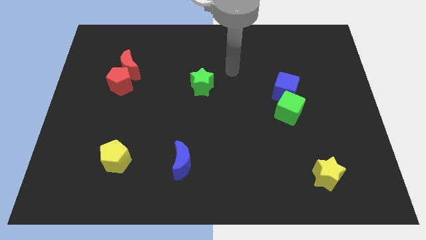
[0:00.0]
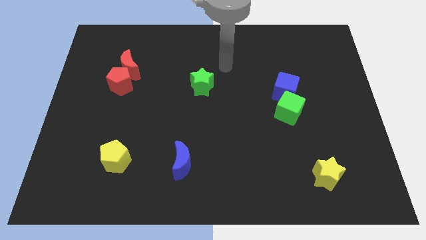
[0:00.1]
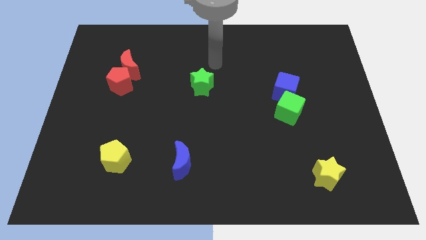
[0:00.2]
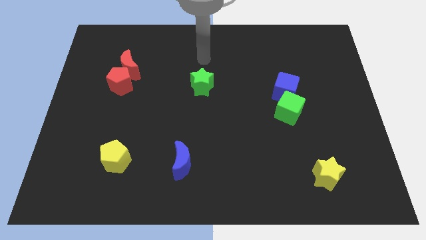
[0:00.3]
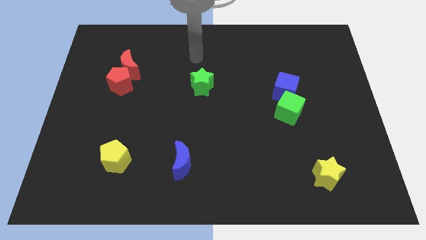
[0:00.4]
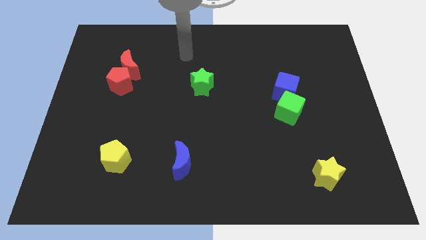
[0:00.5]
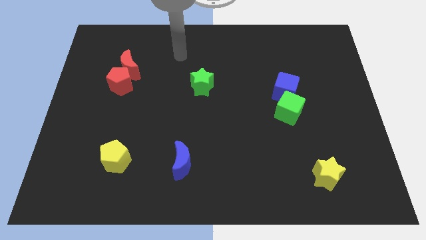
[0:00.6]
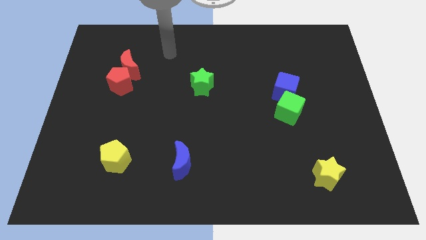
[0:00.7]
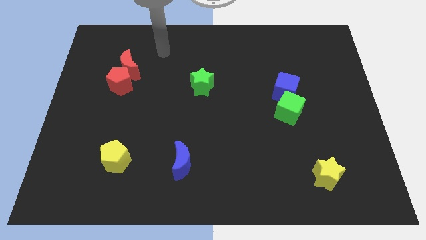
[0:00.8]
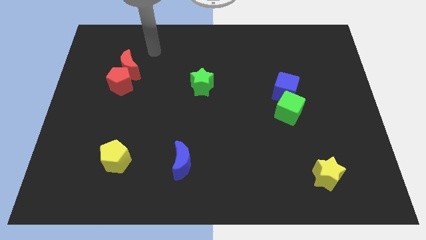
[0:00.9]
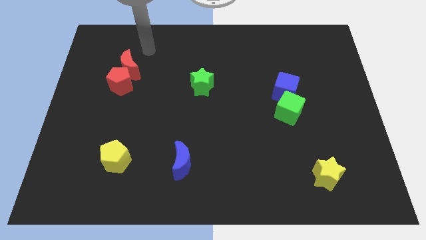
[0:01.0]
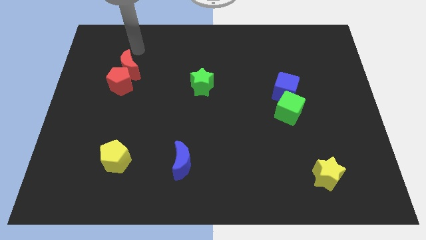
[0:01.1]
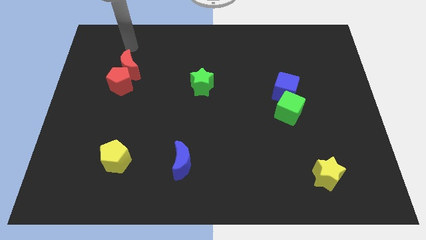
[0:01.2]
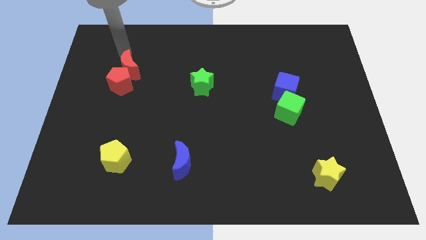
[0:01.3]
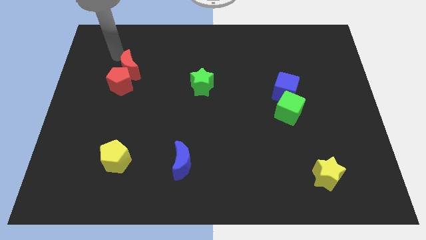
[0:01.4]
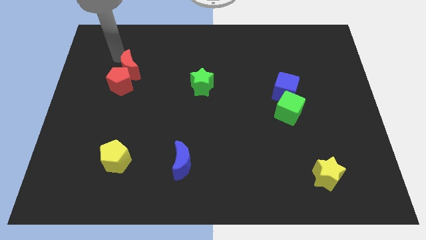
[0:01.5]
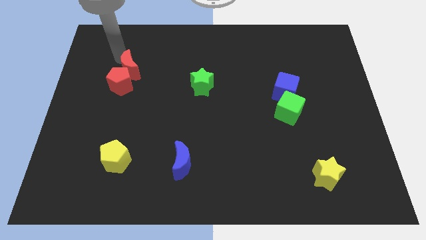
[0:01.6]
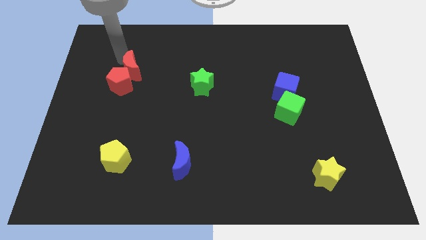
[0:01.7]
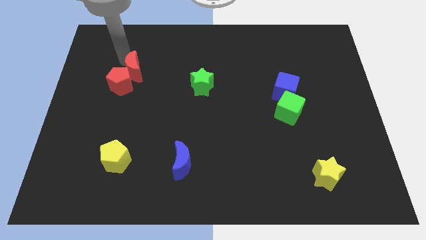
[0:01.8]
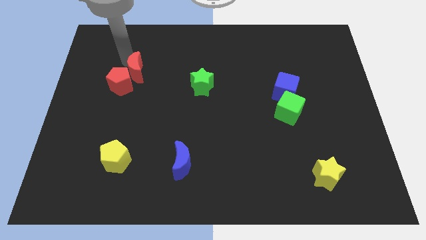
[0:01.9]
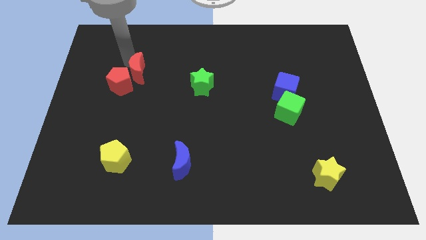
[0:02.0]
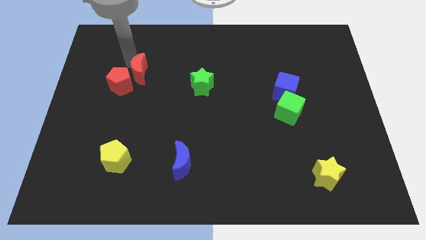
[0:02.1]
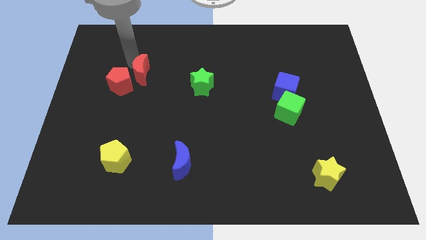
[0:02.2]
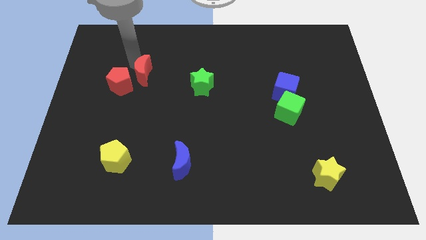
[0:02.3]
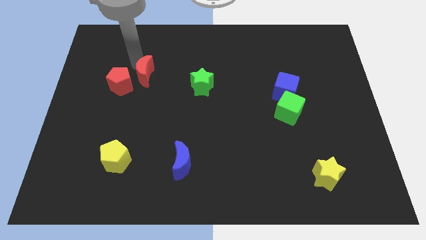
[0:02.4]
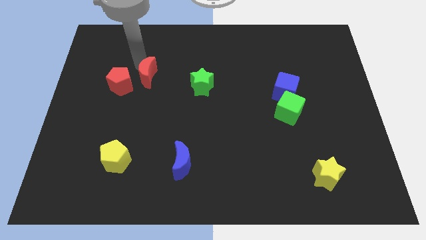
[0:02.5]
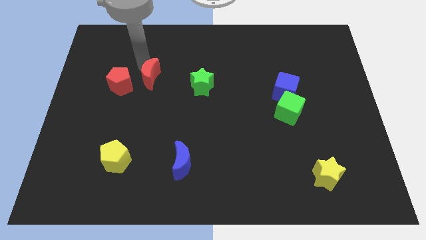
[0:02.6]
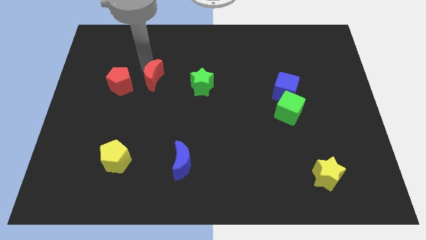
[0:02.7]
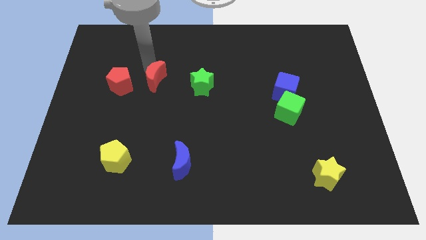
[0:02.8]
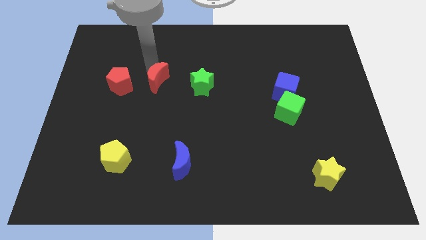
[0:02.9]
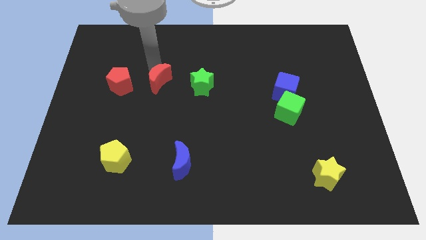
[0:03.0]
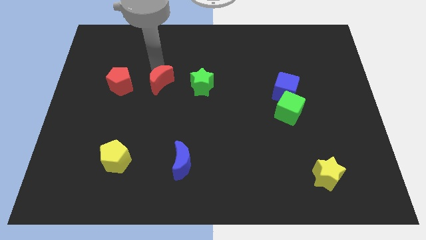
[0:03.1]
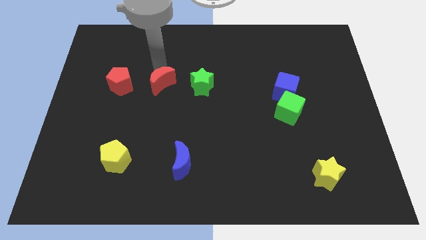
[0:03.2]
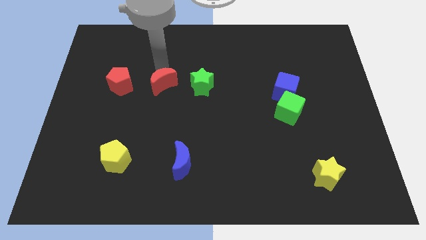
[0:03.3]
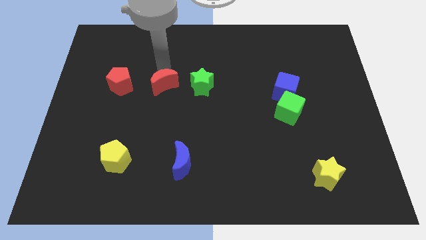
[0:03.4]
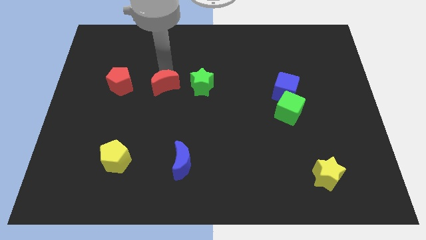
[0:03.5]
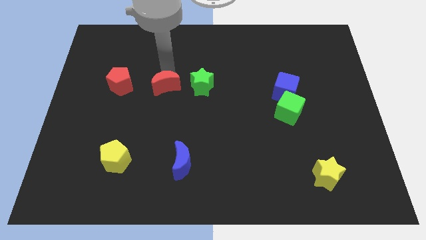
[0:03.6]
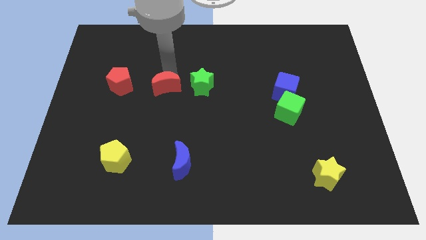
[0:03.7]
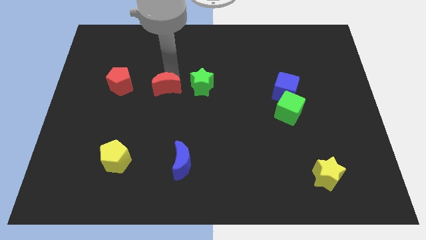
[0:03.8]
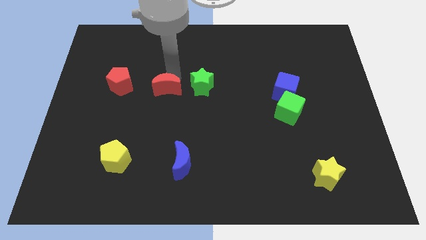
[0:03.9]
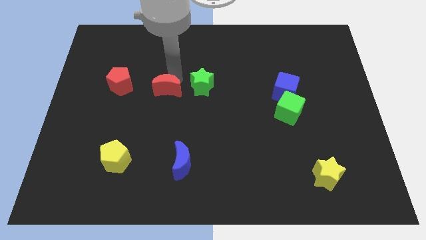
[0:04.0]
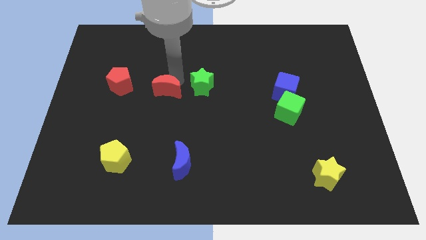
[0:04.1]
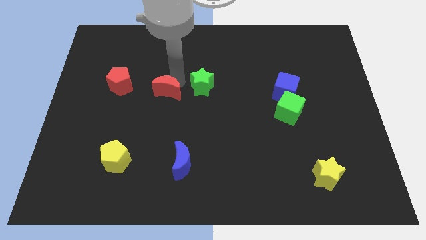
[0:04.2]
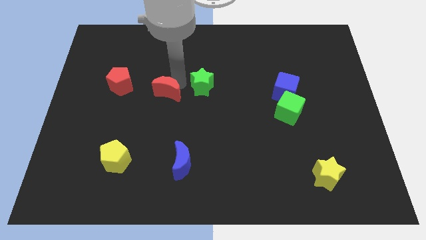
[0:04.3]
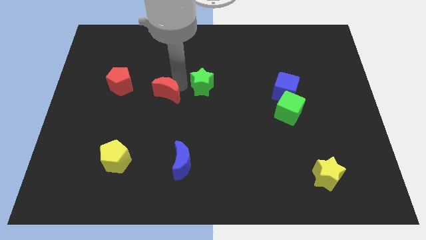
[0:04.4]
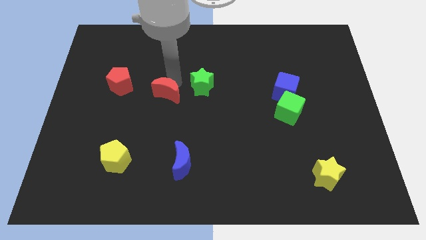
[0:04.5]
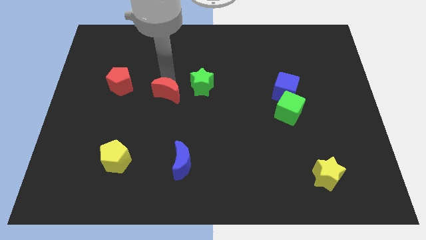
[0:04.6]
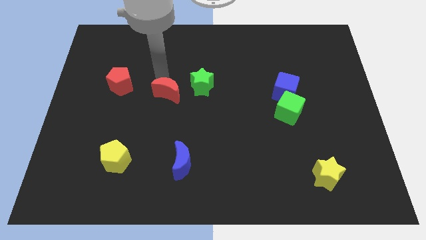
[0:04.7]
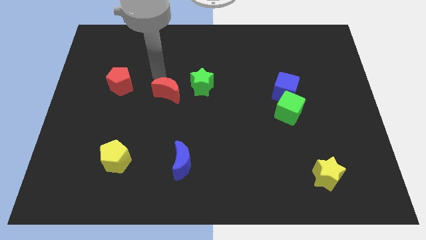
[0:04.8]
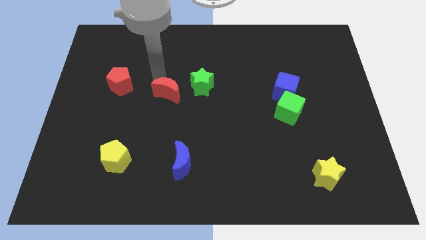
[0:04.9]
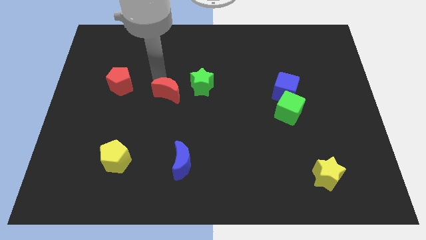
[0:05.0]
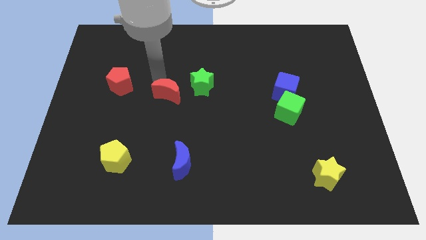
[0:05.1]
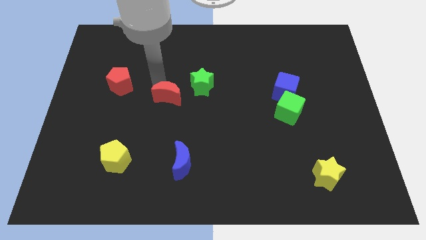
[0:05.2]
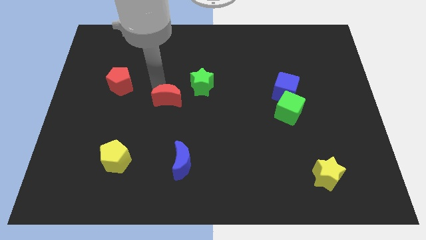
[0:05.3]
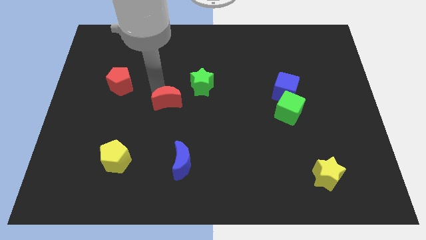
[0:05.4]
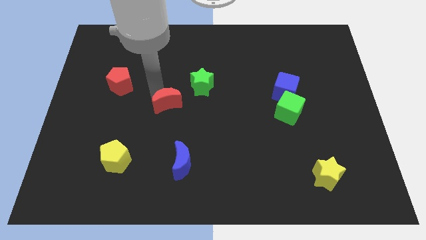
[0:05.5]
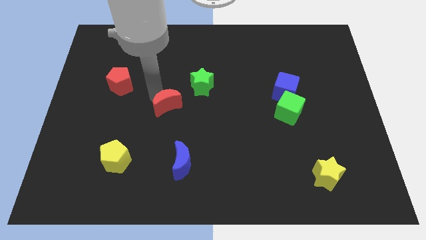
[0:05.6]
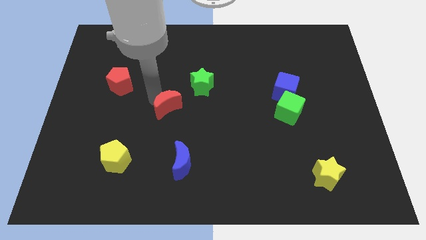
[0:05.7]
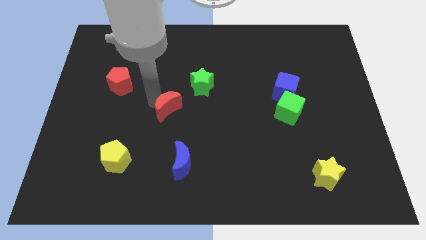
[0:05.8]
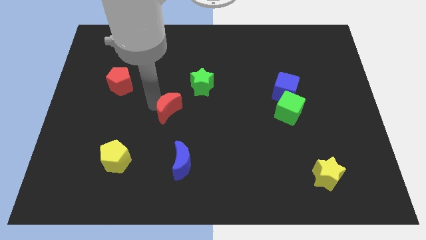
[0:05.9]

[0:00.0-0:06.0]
push the red moon to the top of the blue moon
